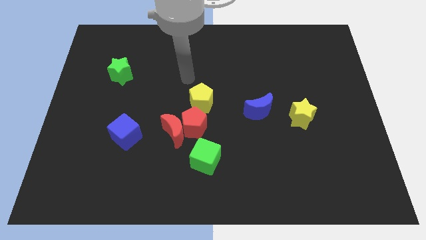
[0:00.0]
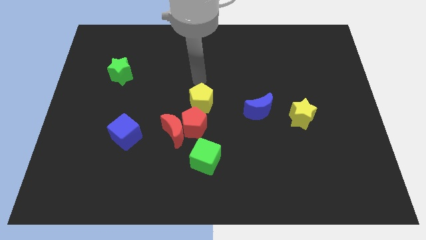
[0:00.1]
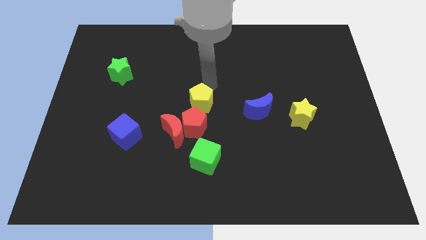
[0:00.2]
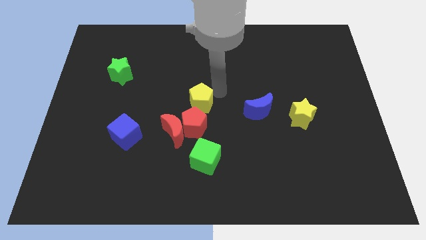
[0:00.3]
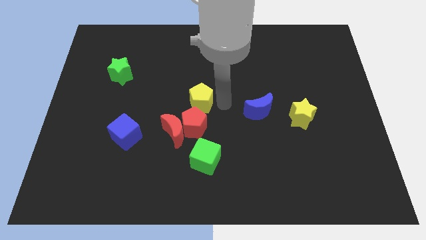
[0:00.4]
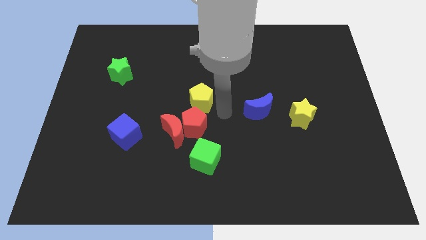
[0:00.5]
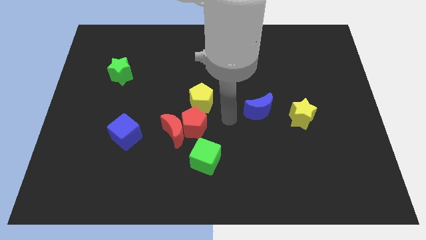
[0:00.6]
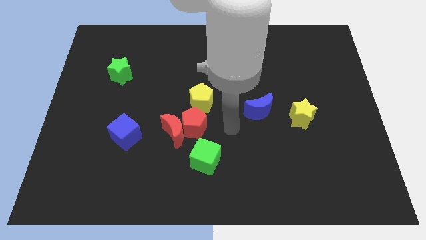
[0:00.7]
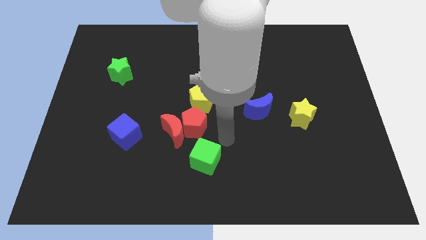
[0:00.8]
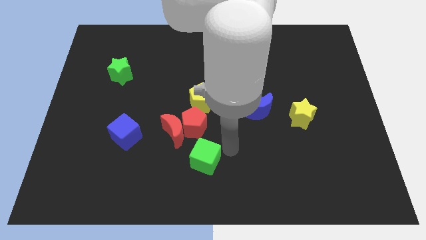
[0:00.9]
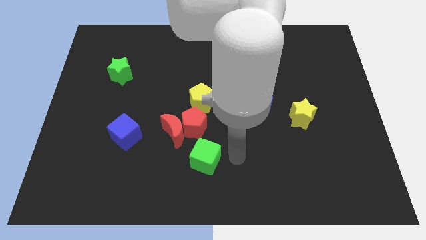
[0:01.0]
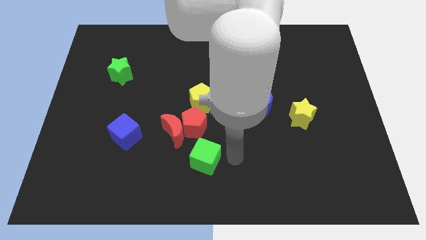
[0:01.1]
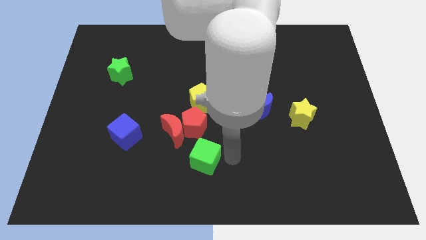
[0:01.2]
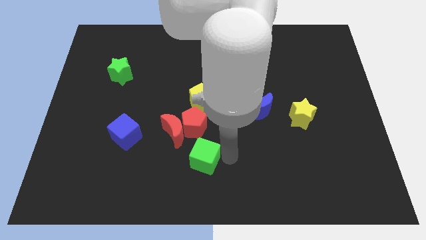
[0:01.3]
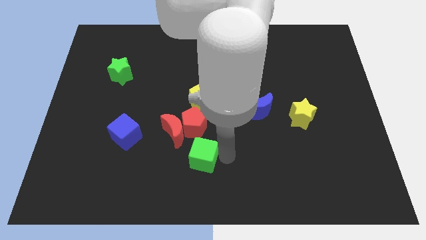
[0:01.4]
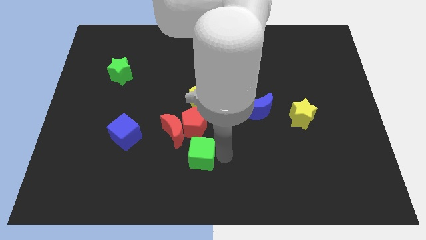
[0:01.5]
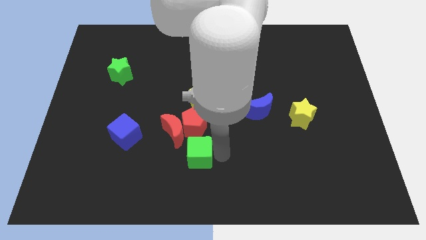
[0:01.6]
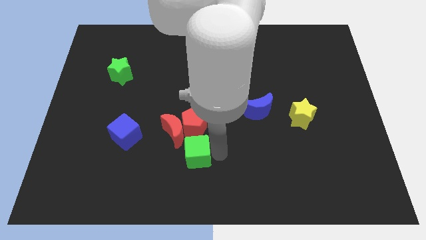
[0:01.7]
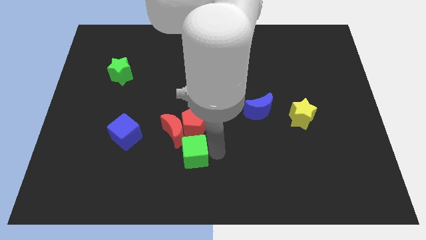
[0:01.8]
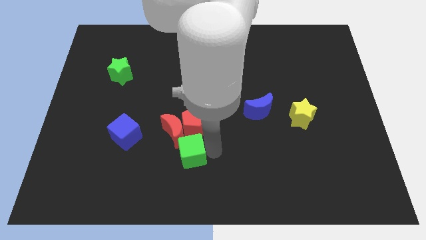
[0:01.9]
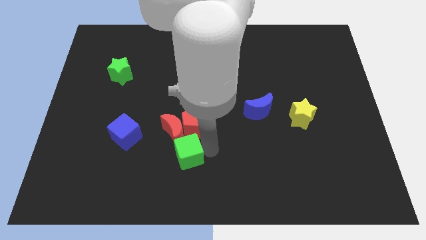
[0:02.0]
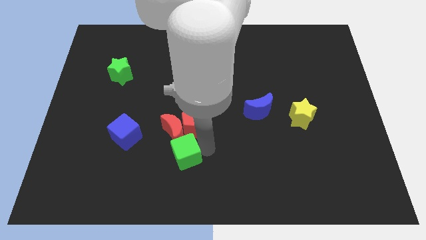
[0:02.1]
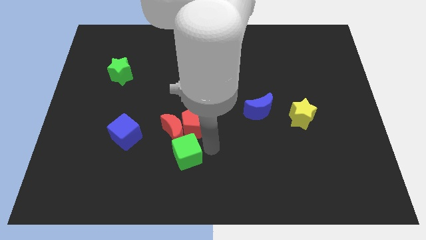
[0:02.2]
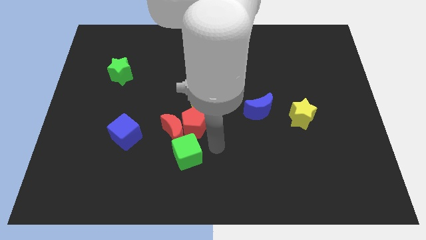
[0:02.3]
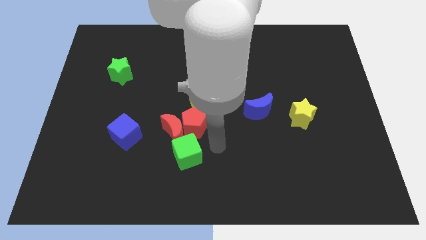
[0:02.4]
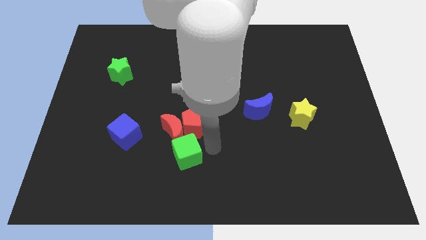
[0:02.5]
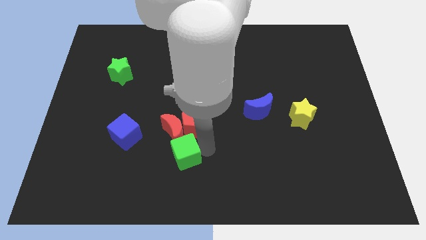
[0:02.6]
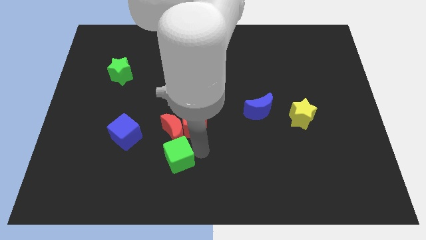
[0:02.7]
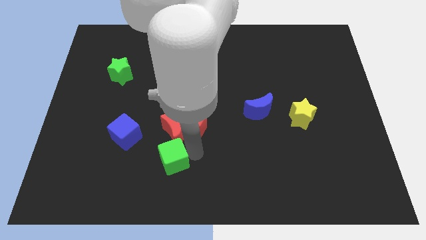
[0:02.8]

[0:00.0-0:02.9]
slide the green cube left somewhat

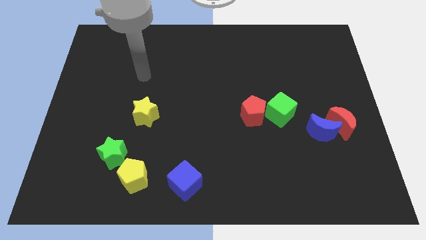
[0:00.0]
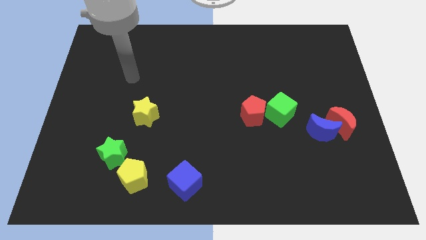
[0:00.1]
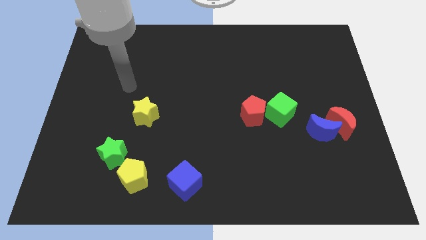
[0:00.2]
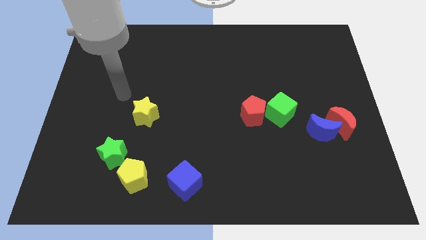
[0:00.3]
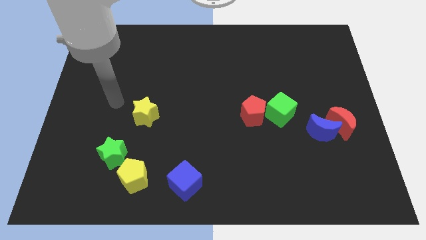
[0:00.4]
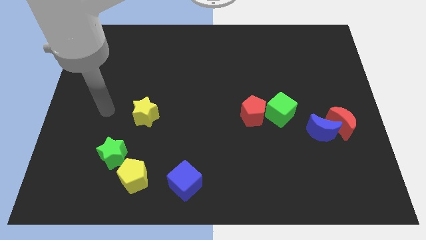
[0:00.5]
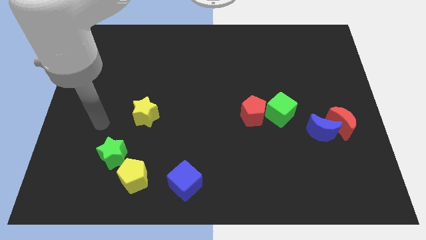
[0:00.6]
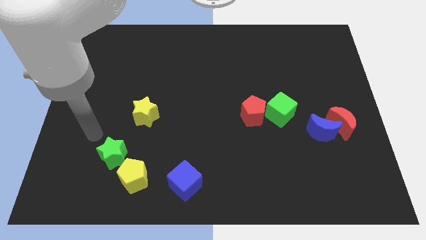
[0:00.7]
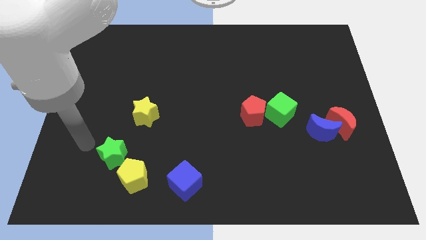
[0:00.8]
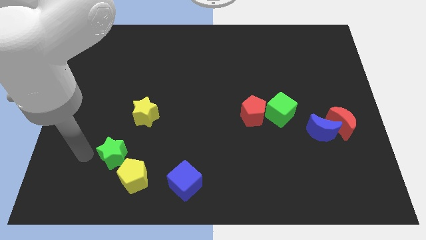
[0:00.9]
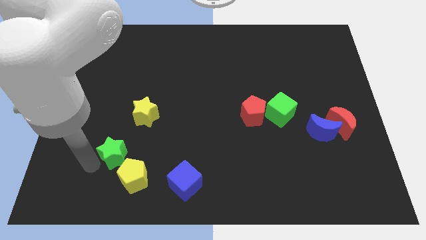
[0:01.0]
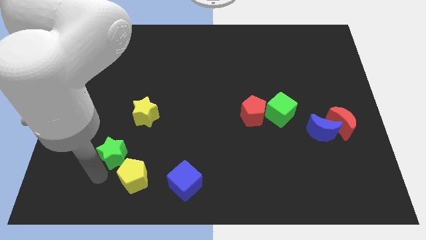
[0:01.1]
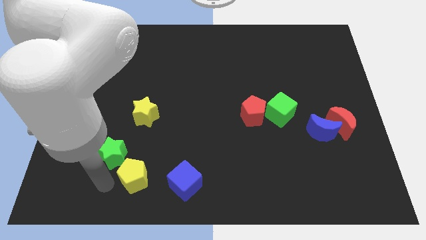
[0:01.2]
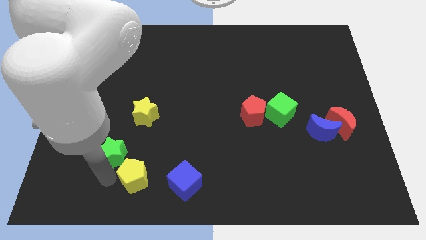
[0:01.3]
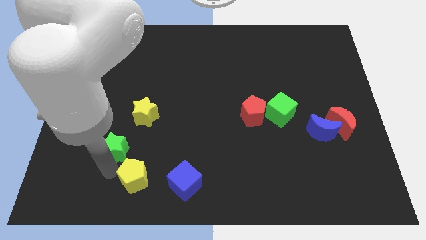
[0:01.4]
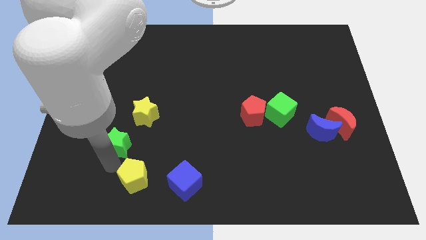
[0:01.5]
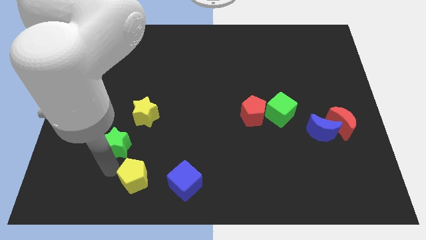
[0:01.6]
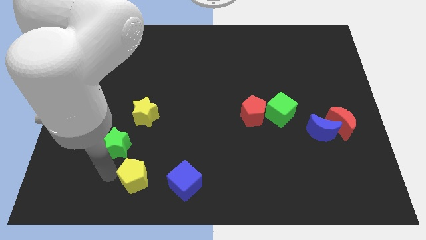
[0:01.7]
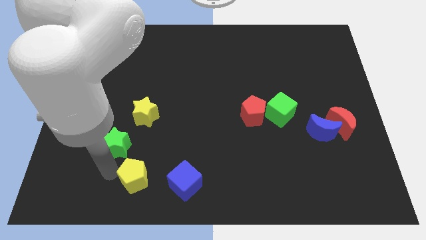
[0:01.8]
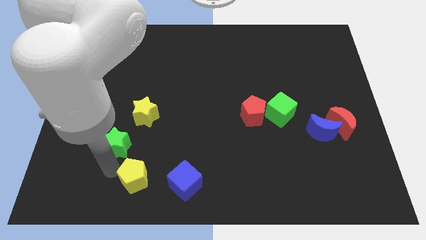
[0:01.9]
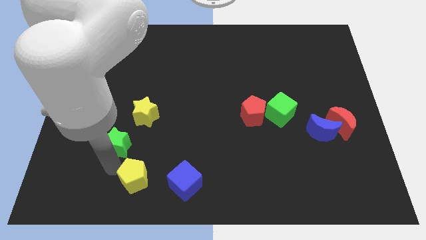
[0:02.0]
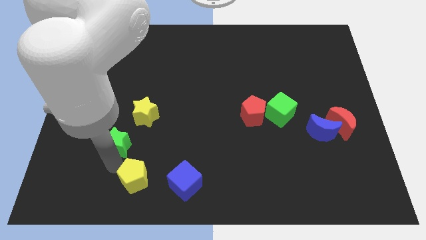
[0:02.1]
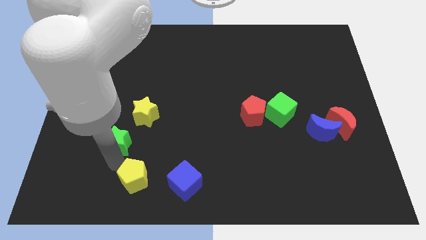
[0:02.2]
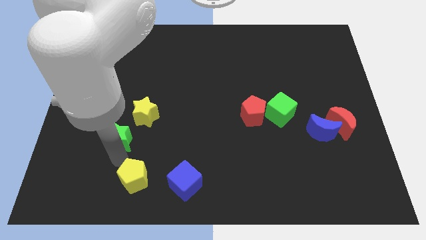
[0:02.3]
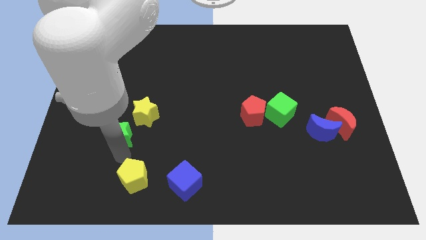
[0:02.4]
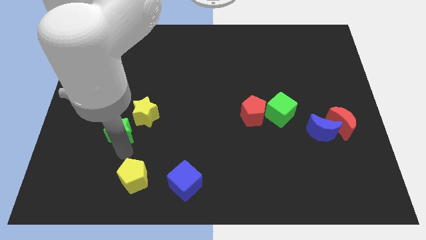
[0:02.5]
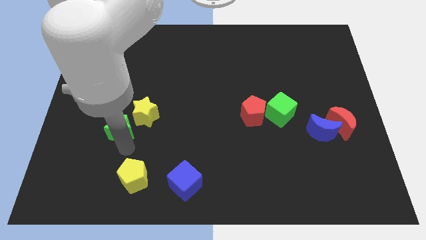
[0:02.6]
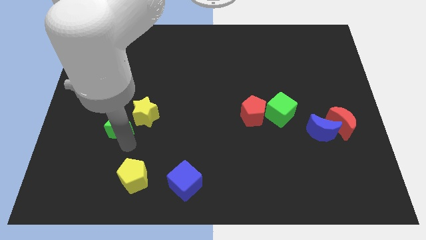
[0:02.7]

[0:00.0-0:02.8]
push the green star up somewhat

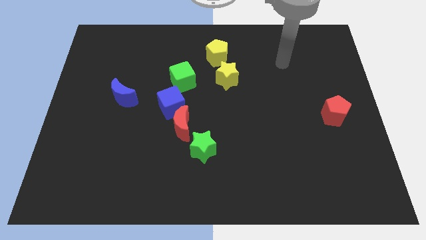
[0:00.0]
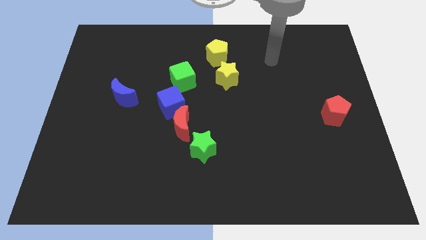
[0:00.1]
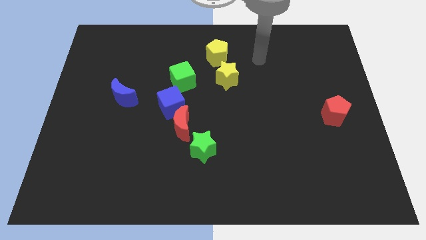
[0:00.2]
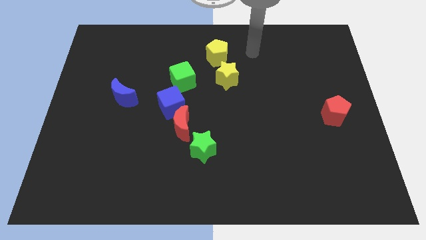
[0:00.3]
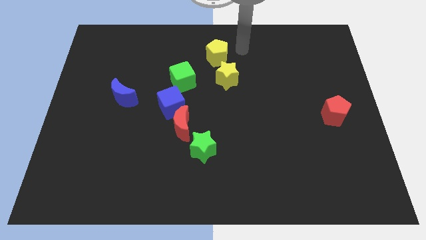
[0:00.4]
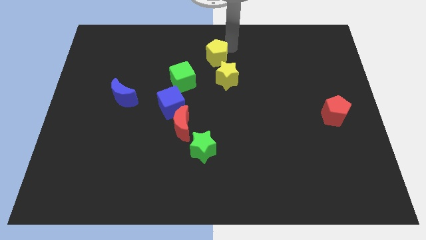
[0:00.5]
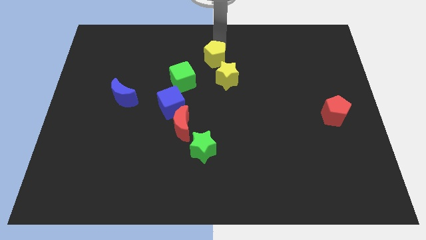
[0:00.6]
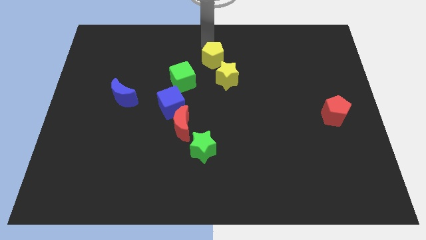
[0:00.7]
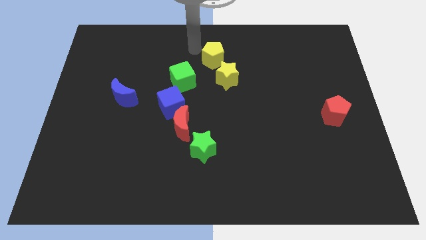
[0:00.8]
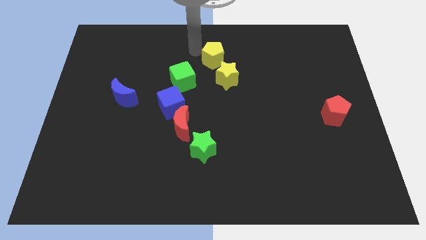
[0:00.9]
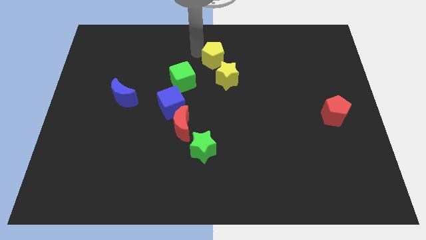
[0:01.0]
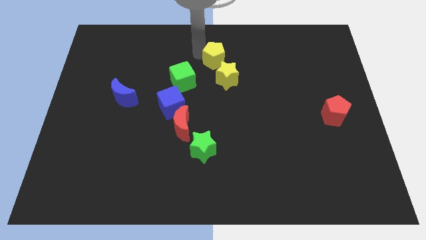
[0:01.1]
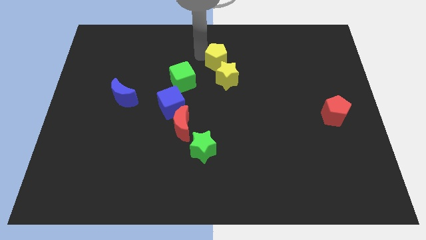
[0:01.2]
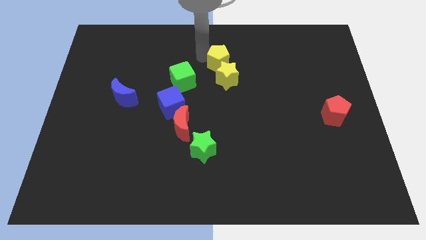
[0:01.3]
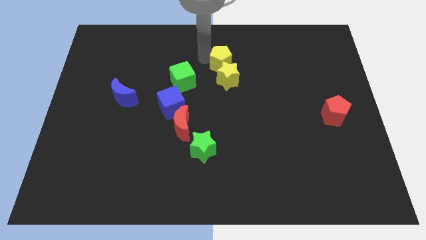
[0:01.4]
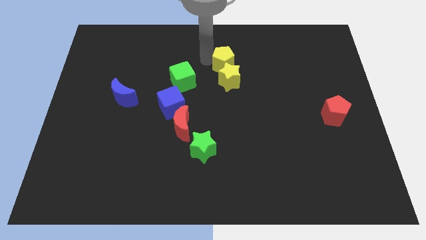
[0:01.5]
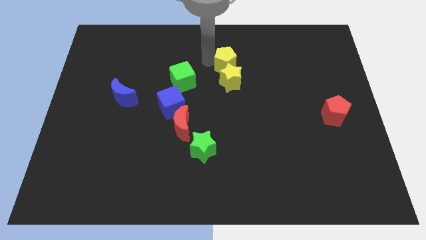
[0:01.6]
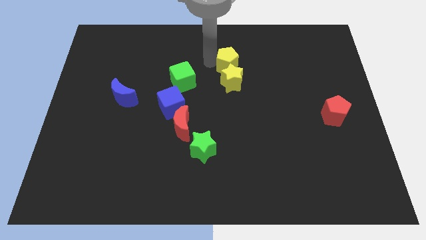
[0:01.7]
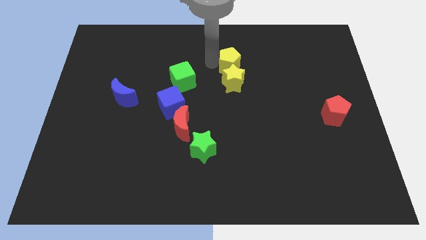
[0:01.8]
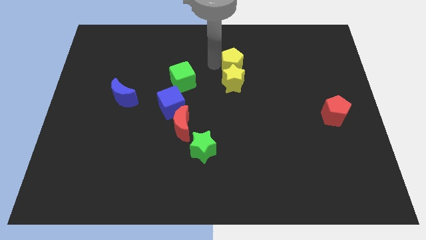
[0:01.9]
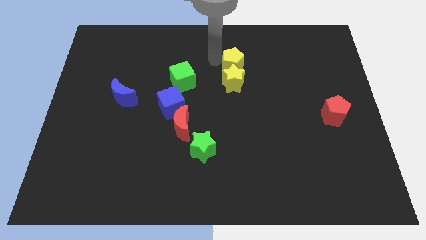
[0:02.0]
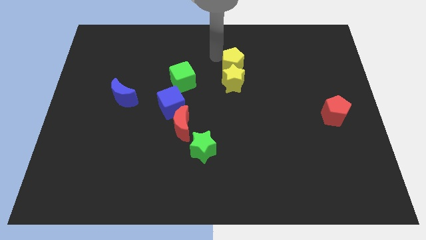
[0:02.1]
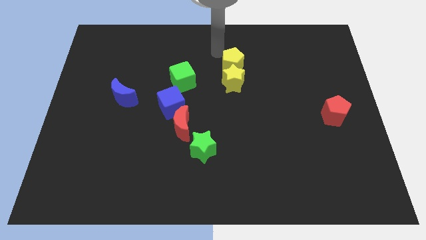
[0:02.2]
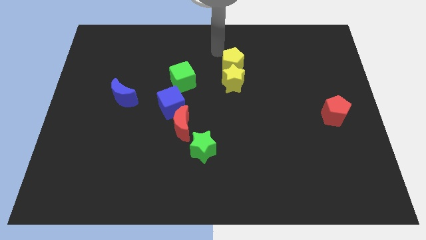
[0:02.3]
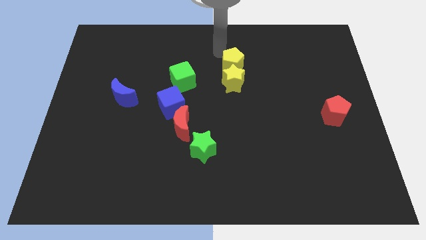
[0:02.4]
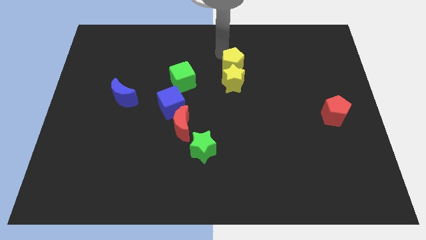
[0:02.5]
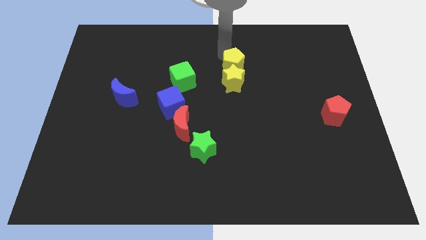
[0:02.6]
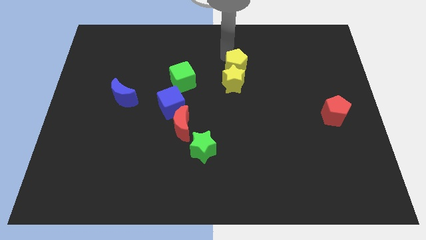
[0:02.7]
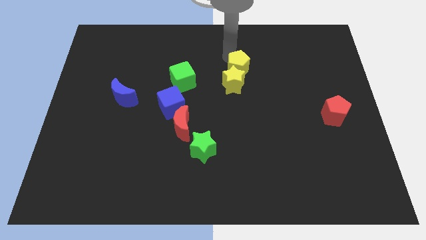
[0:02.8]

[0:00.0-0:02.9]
move the yellow pentagon down and to the right diagonally a little
